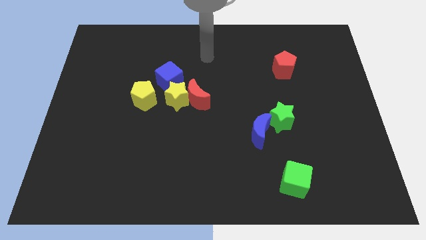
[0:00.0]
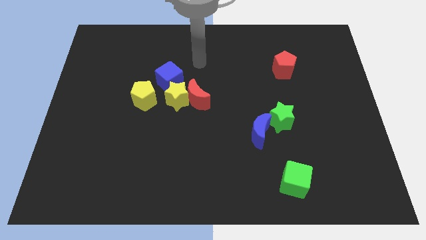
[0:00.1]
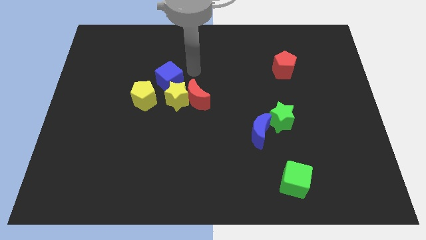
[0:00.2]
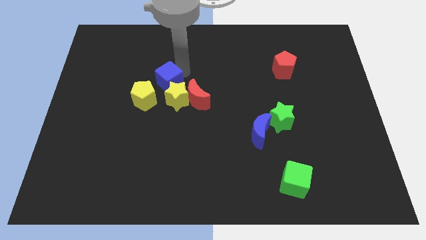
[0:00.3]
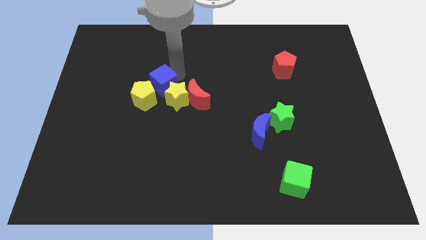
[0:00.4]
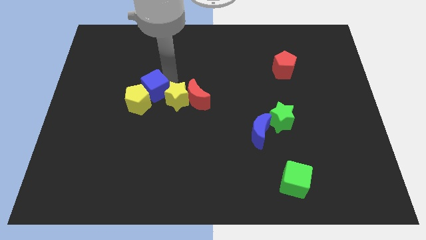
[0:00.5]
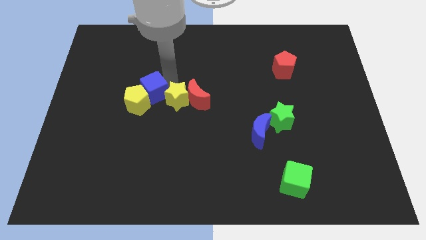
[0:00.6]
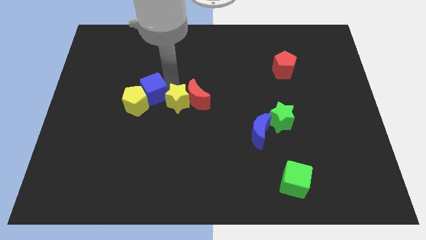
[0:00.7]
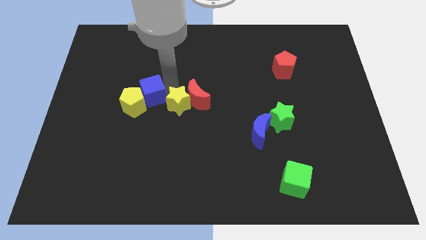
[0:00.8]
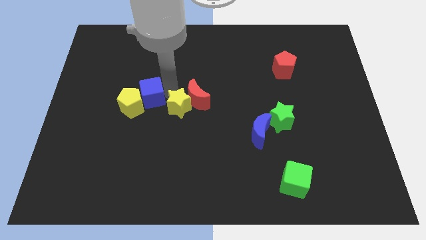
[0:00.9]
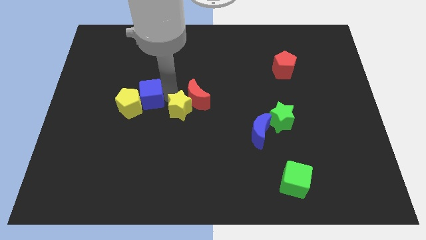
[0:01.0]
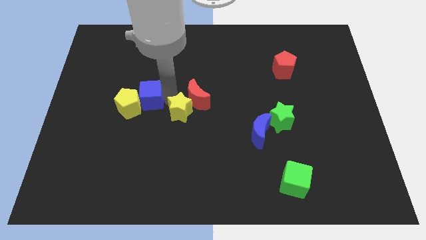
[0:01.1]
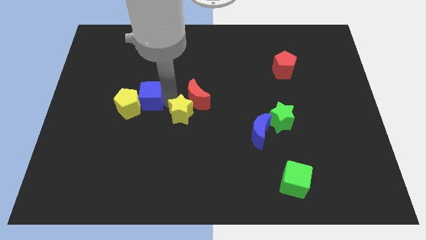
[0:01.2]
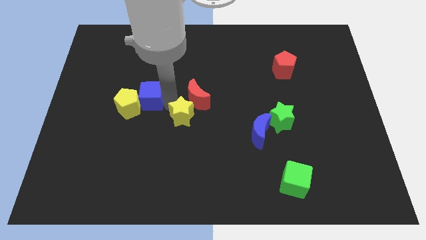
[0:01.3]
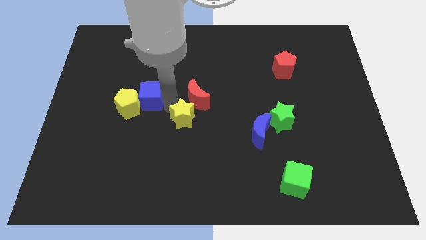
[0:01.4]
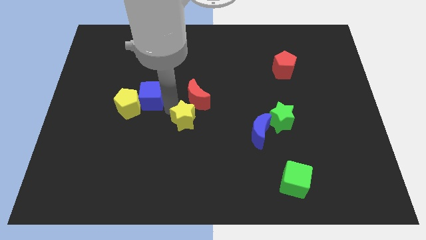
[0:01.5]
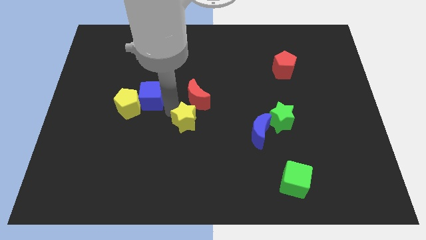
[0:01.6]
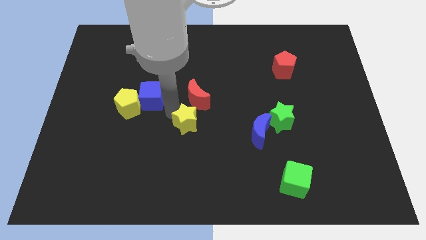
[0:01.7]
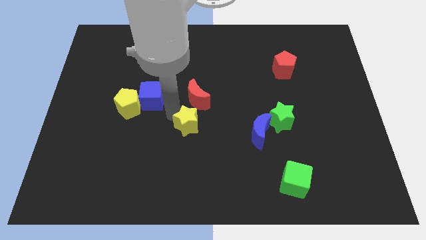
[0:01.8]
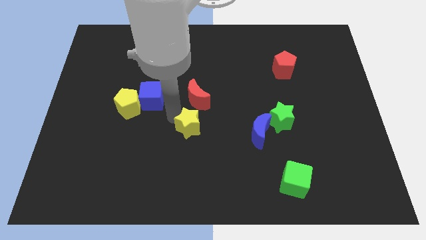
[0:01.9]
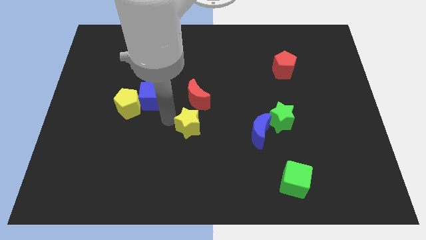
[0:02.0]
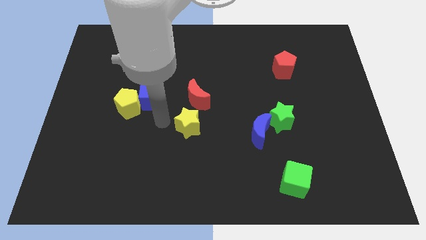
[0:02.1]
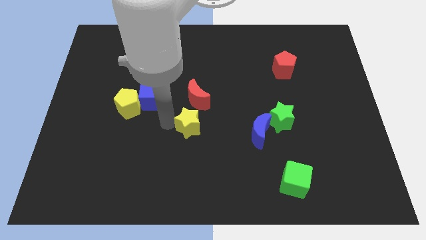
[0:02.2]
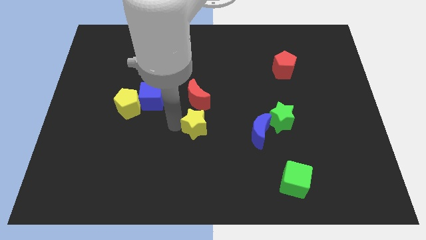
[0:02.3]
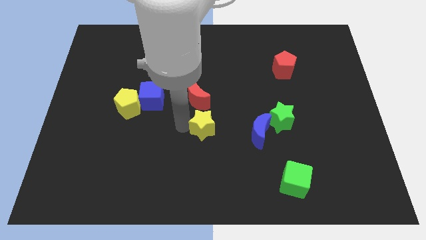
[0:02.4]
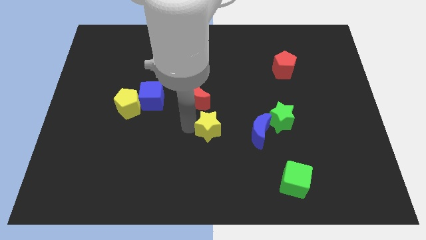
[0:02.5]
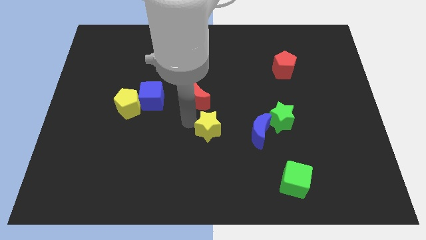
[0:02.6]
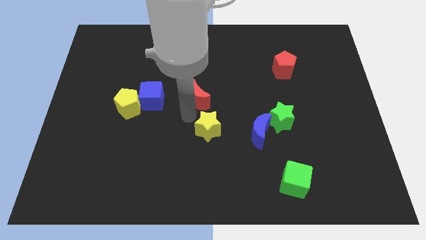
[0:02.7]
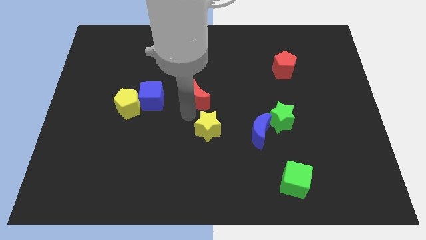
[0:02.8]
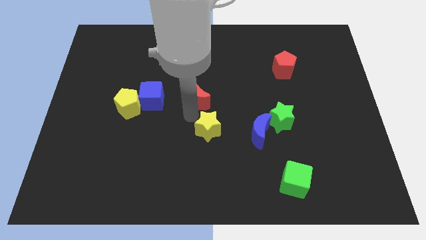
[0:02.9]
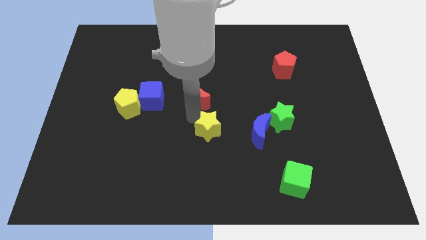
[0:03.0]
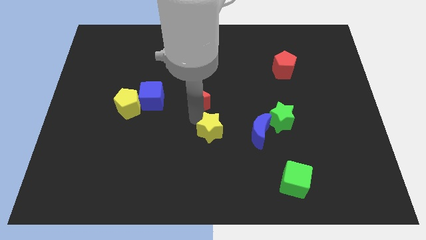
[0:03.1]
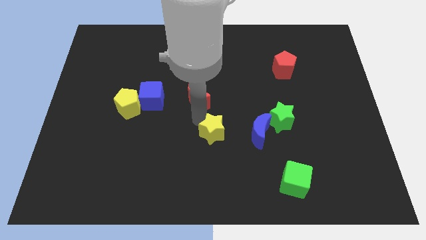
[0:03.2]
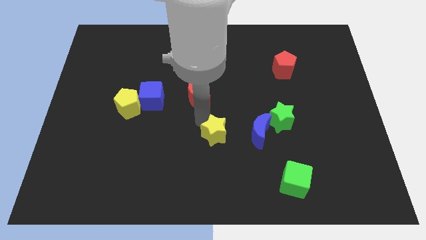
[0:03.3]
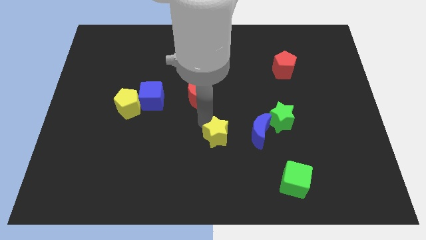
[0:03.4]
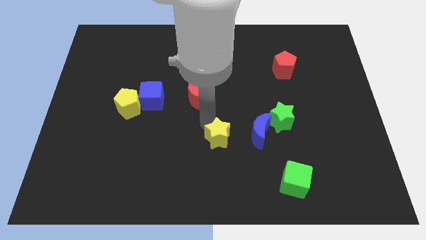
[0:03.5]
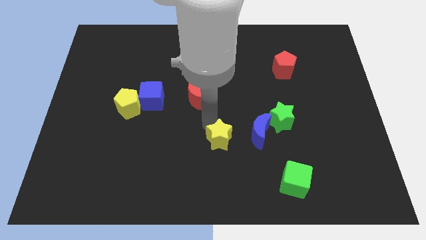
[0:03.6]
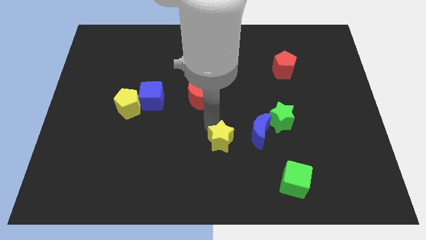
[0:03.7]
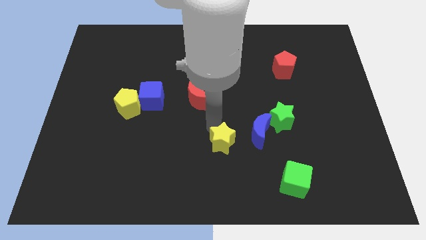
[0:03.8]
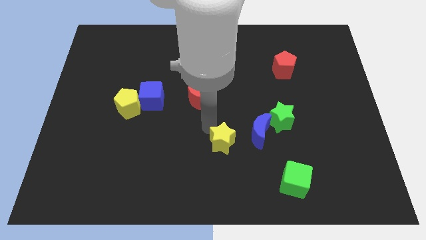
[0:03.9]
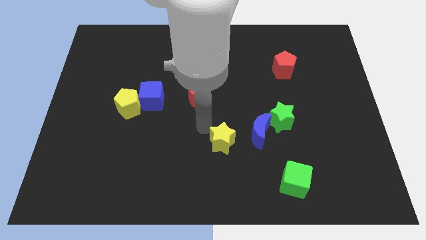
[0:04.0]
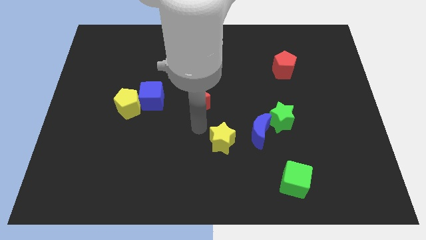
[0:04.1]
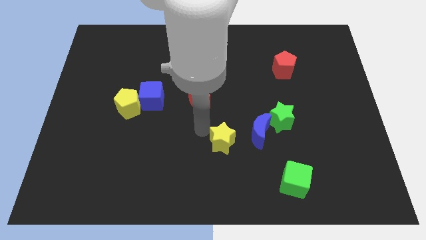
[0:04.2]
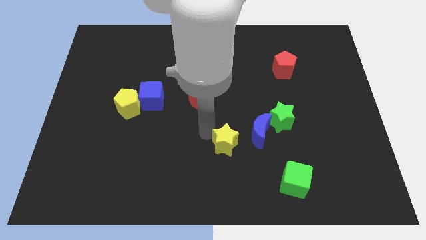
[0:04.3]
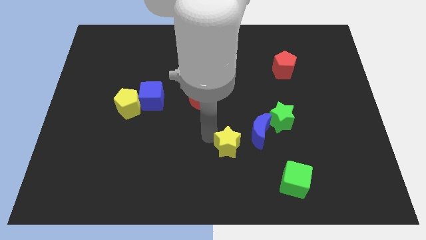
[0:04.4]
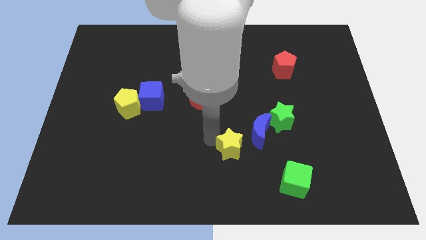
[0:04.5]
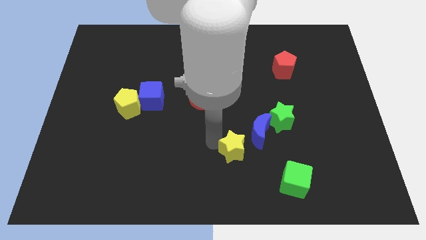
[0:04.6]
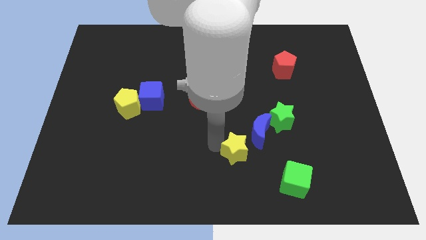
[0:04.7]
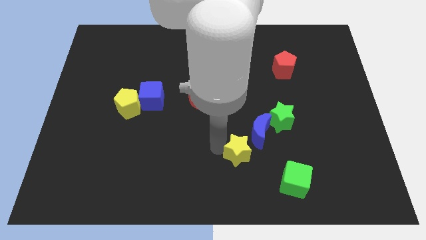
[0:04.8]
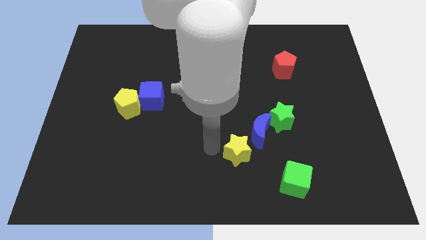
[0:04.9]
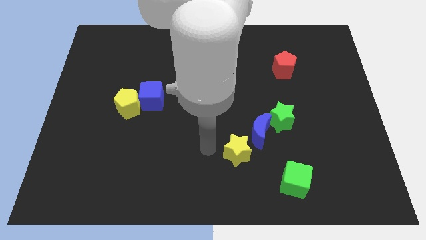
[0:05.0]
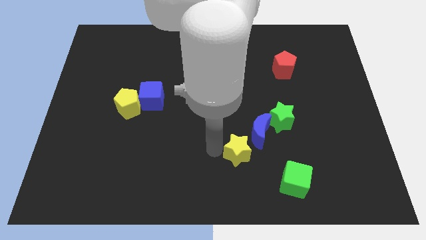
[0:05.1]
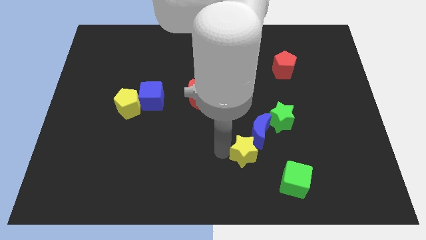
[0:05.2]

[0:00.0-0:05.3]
slide the yellow star to the top left of the green cube

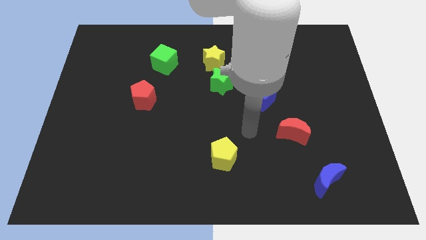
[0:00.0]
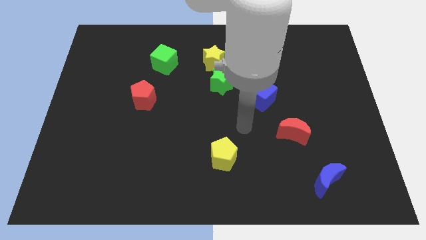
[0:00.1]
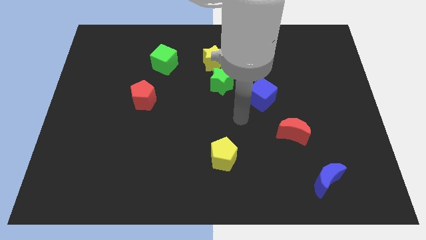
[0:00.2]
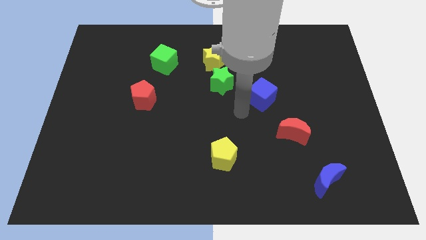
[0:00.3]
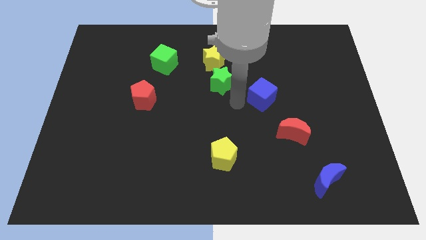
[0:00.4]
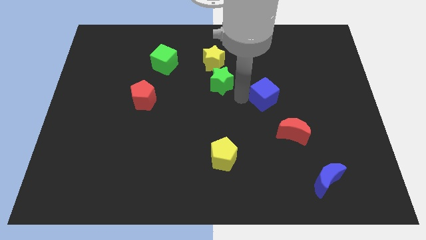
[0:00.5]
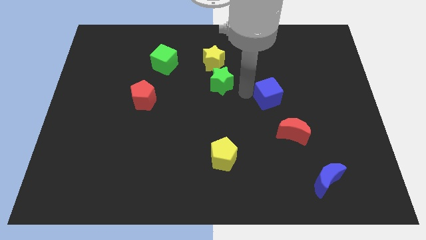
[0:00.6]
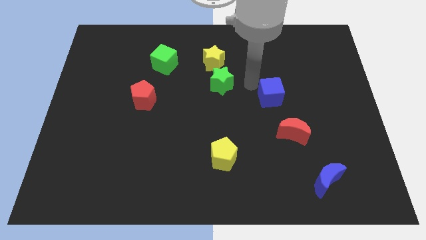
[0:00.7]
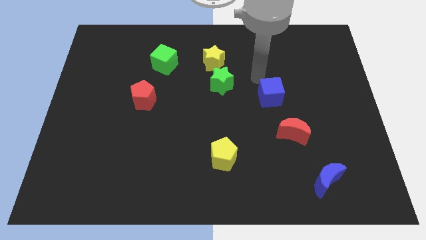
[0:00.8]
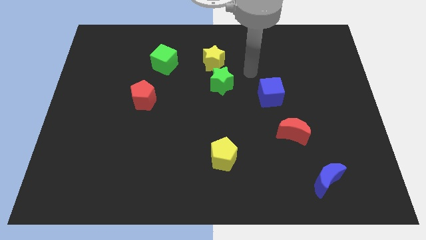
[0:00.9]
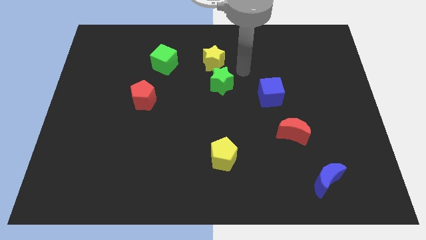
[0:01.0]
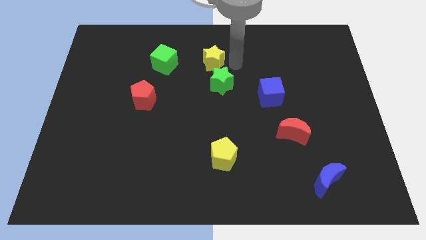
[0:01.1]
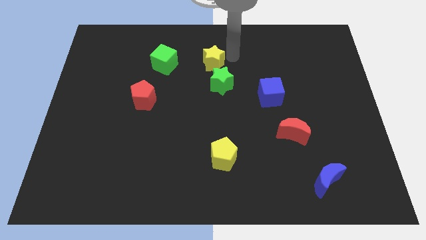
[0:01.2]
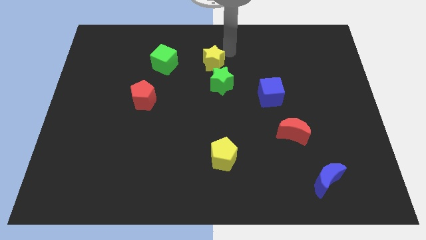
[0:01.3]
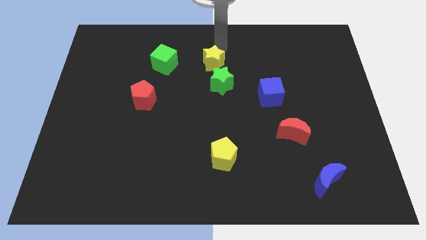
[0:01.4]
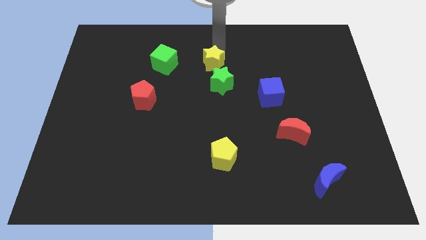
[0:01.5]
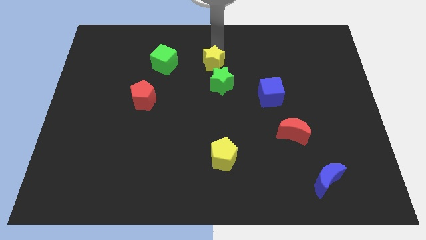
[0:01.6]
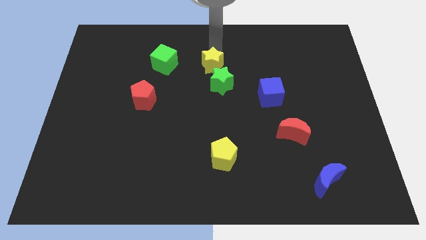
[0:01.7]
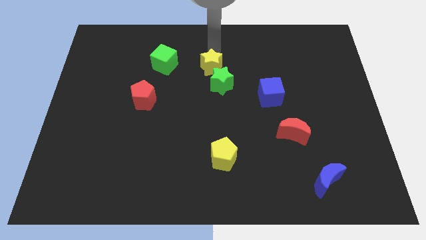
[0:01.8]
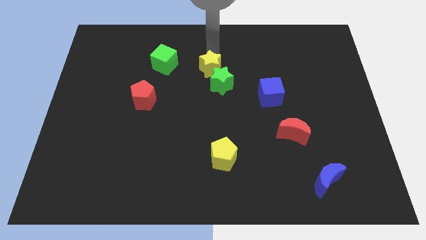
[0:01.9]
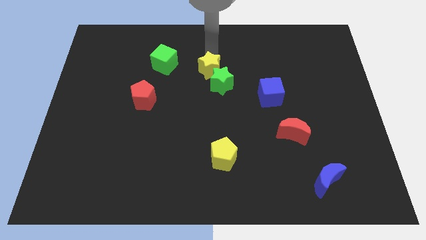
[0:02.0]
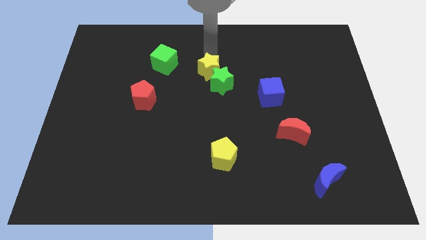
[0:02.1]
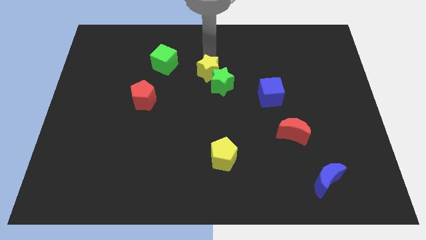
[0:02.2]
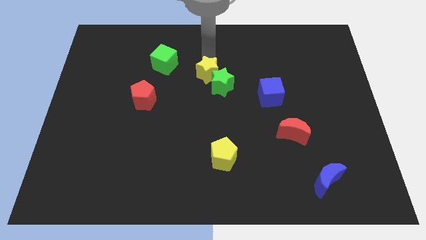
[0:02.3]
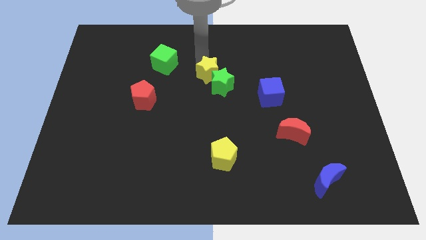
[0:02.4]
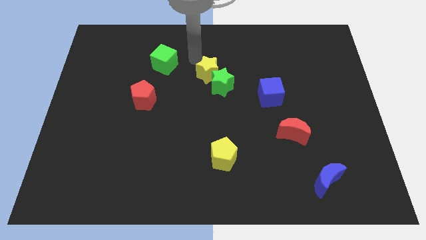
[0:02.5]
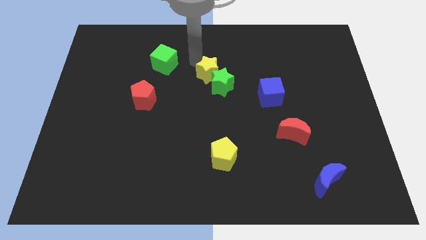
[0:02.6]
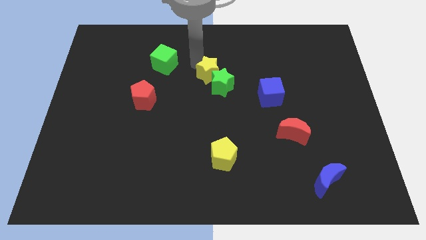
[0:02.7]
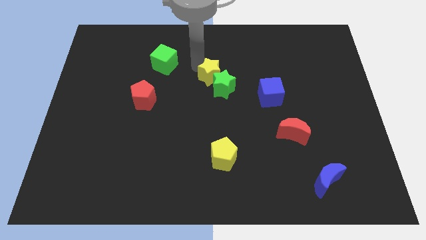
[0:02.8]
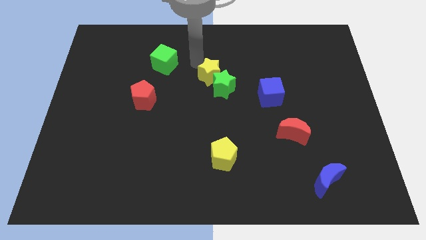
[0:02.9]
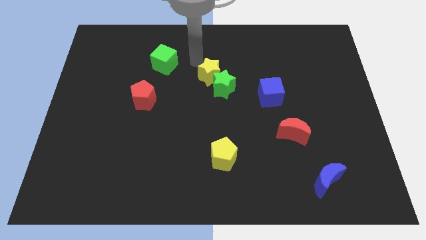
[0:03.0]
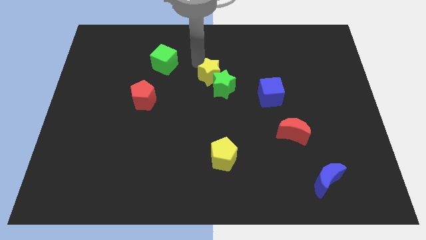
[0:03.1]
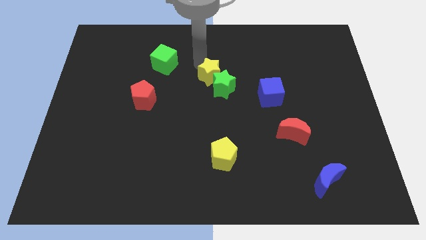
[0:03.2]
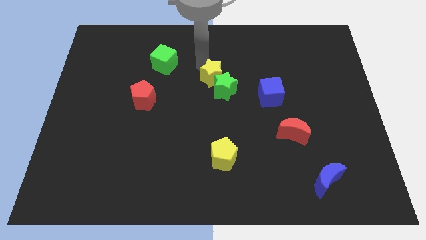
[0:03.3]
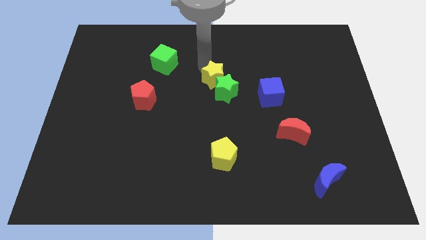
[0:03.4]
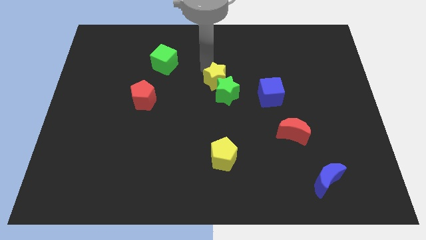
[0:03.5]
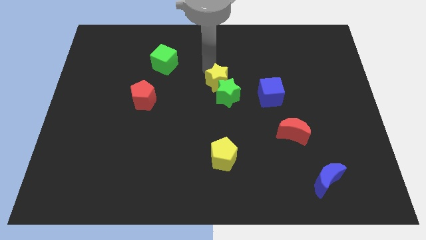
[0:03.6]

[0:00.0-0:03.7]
slide the yellow star left of the blue cube
